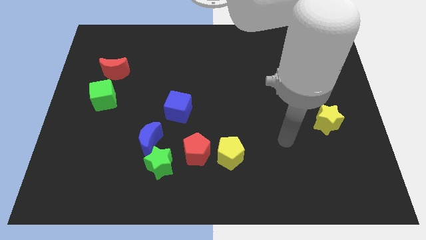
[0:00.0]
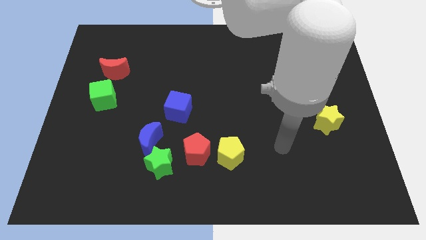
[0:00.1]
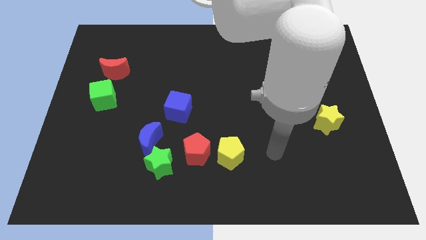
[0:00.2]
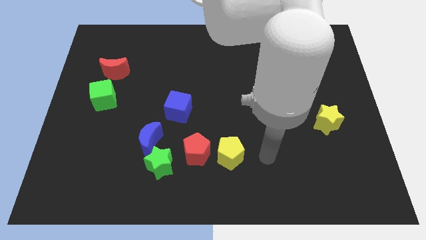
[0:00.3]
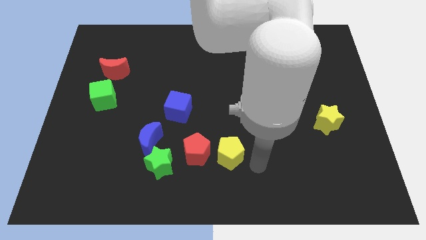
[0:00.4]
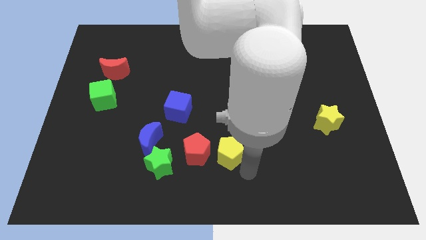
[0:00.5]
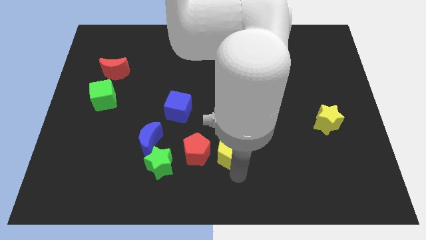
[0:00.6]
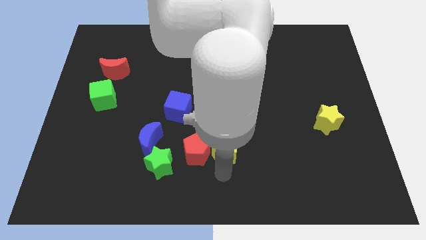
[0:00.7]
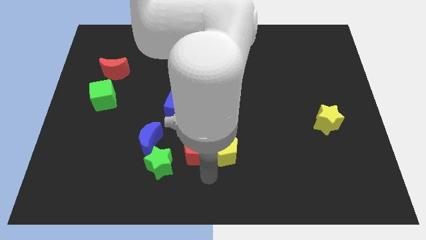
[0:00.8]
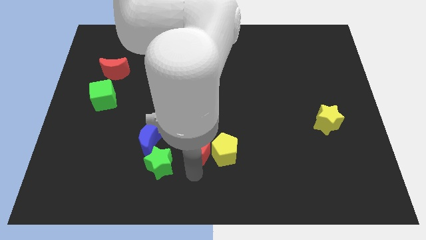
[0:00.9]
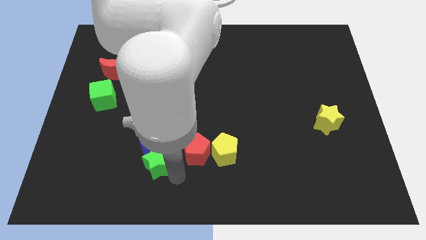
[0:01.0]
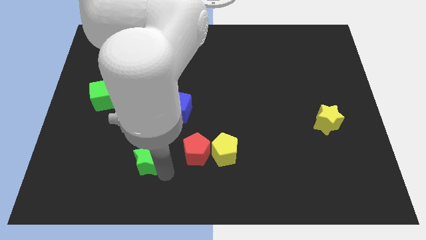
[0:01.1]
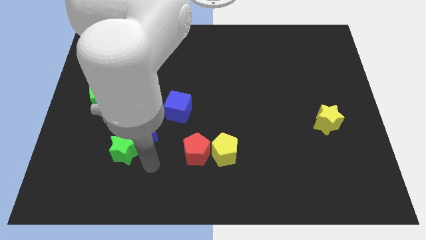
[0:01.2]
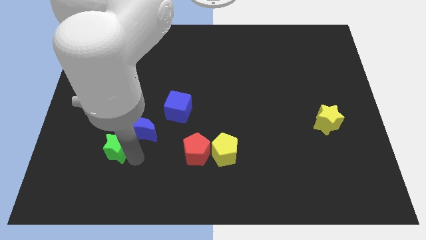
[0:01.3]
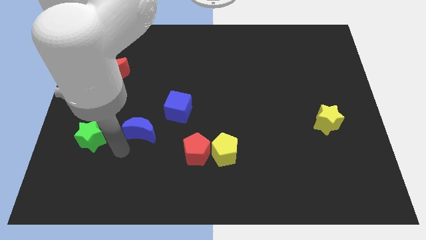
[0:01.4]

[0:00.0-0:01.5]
separate the blue moon from the green star

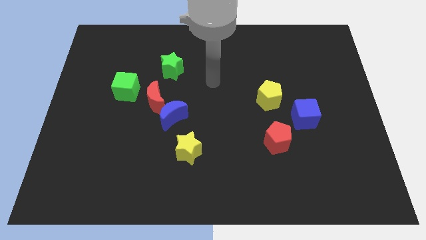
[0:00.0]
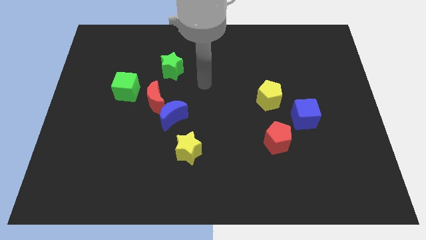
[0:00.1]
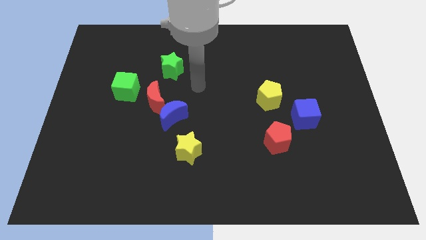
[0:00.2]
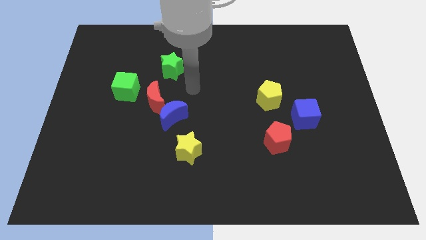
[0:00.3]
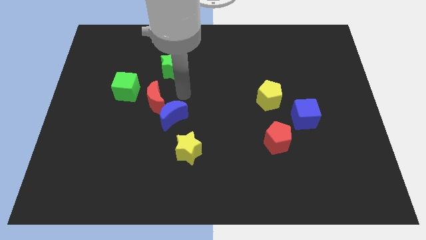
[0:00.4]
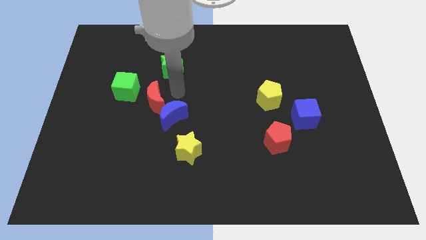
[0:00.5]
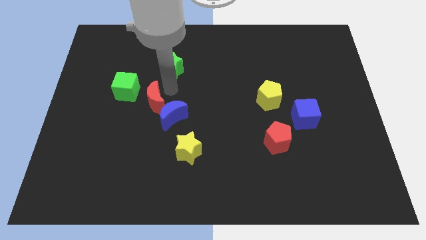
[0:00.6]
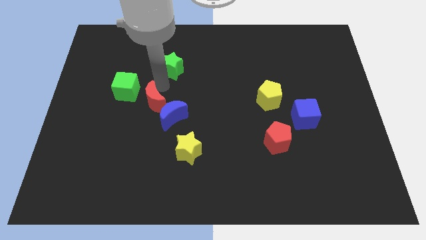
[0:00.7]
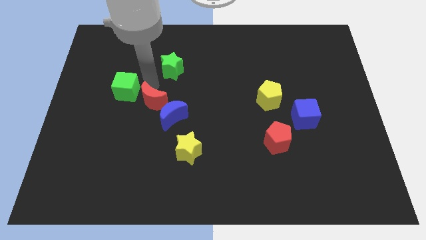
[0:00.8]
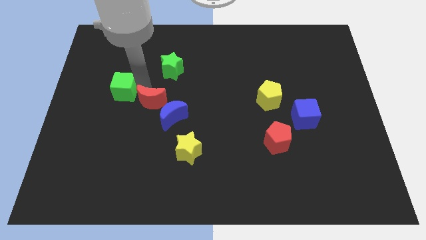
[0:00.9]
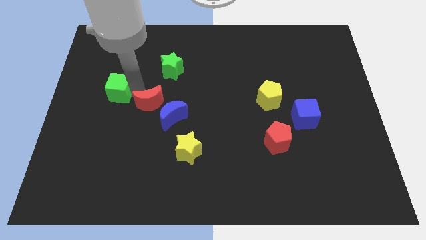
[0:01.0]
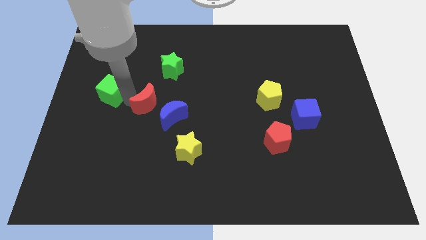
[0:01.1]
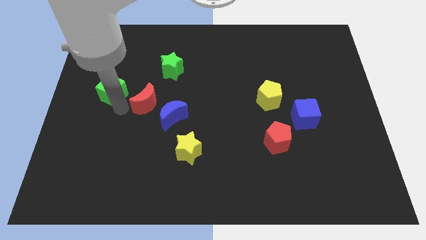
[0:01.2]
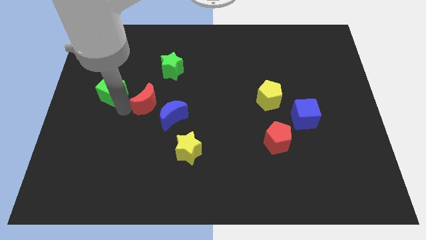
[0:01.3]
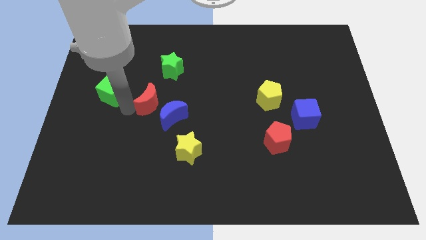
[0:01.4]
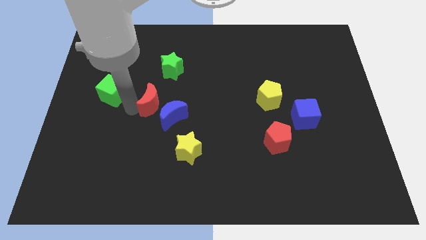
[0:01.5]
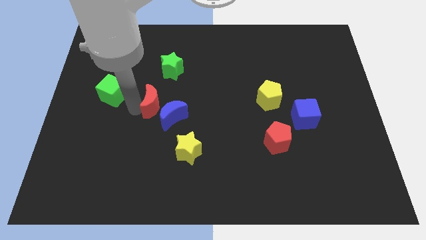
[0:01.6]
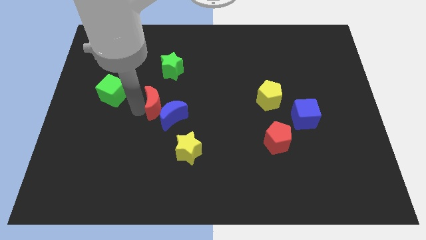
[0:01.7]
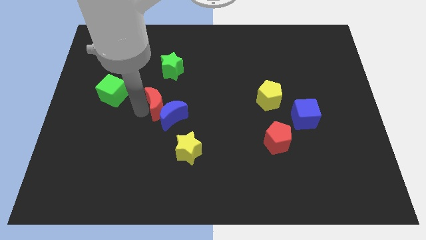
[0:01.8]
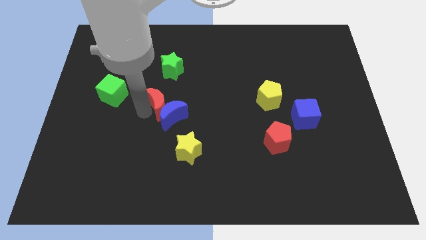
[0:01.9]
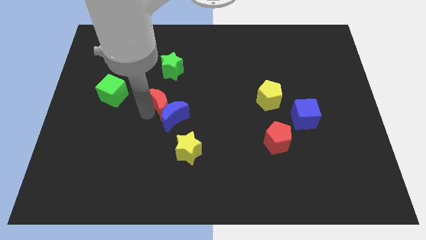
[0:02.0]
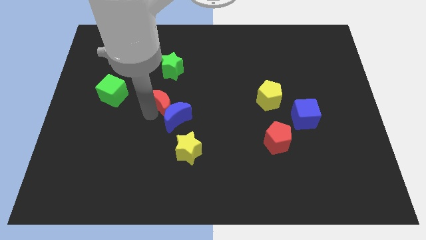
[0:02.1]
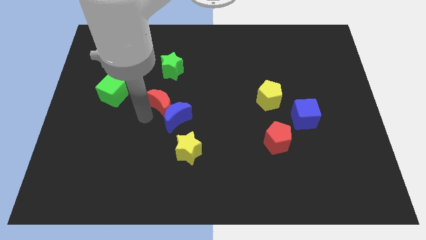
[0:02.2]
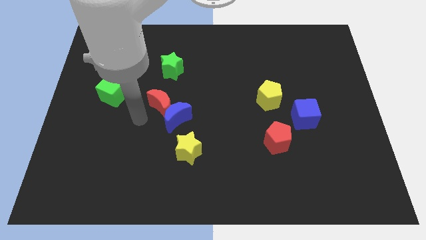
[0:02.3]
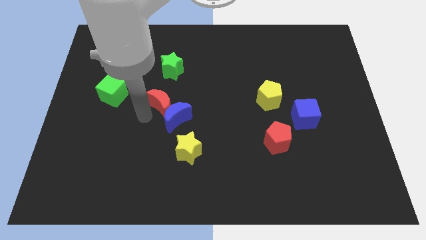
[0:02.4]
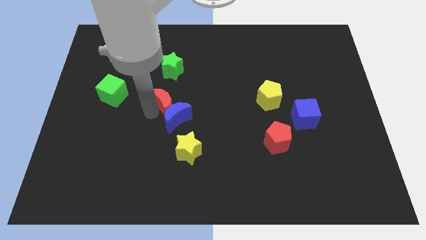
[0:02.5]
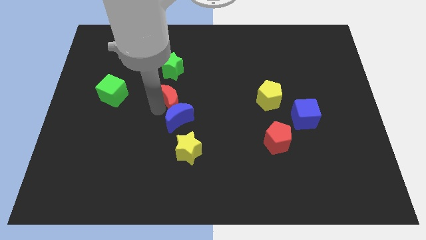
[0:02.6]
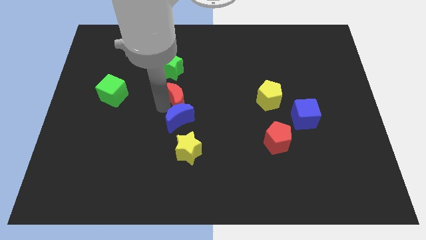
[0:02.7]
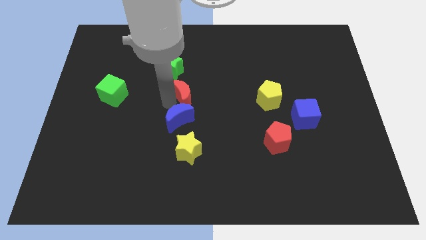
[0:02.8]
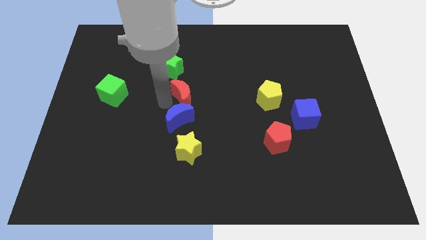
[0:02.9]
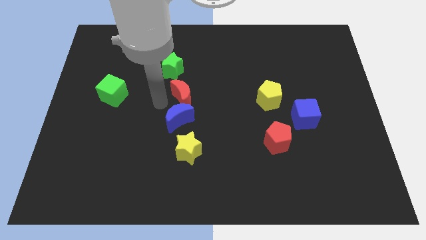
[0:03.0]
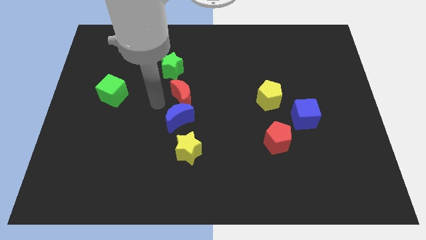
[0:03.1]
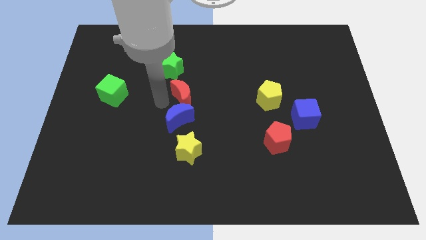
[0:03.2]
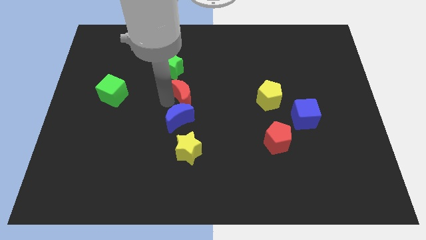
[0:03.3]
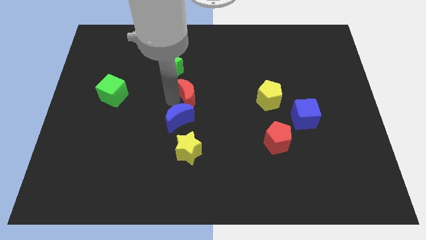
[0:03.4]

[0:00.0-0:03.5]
move the red moon away from the blue moon and green cube

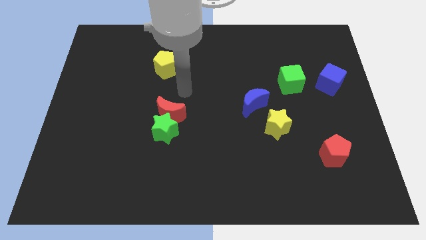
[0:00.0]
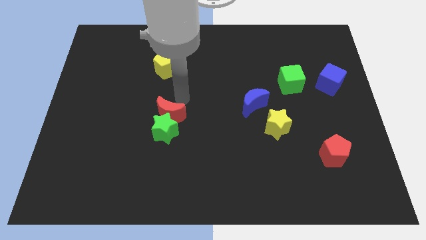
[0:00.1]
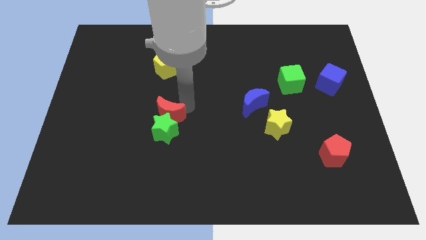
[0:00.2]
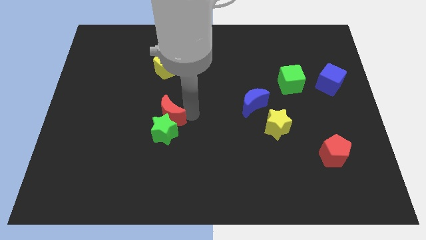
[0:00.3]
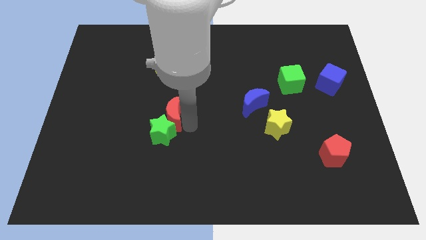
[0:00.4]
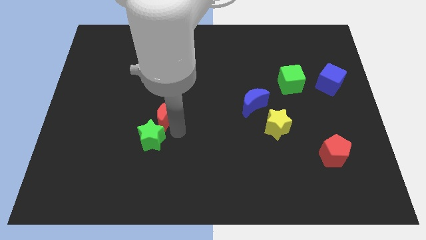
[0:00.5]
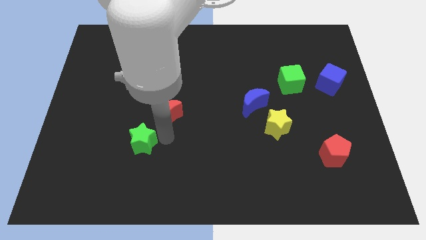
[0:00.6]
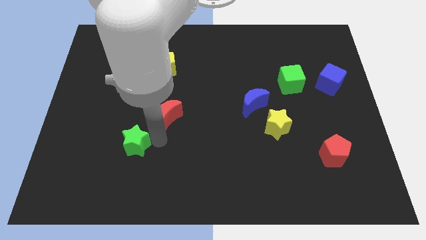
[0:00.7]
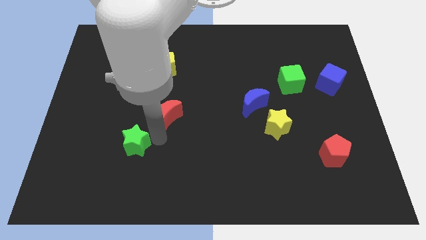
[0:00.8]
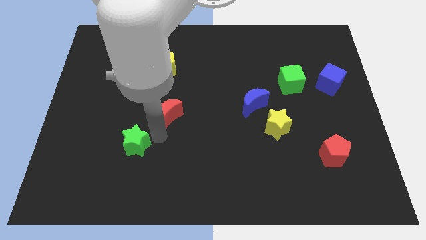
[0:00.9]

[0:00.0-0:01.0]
separate the red moon from the green star

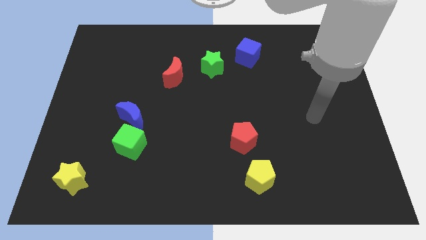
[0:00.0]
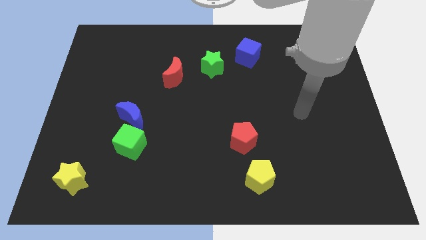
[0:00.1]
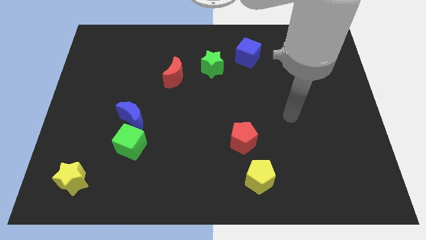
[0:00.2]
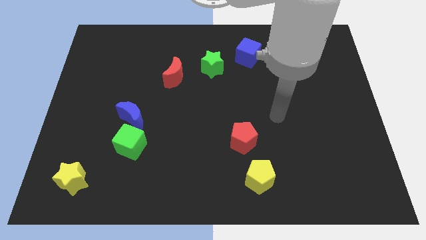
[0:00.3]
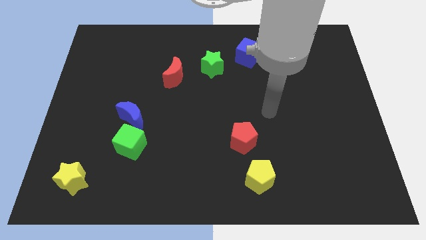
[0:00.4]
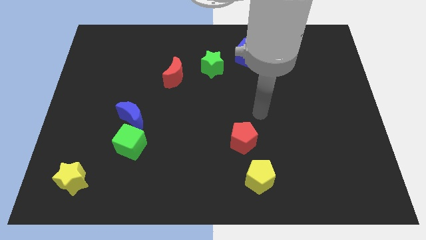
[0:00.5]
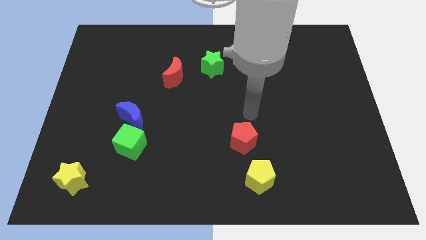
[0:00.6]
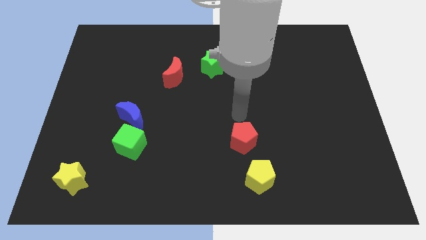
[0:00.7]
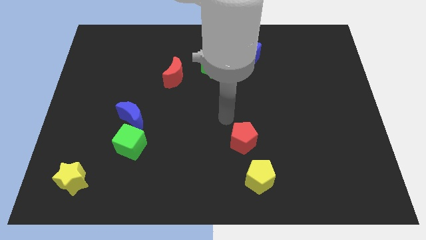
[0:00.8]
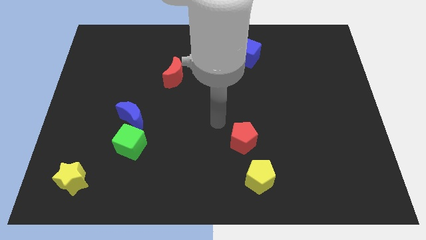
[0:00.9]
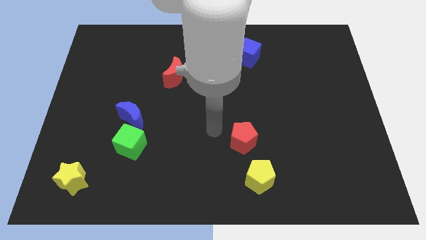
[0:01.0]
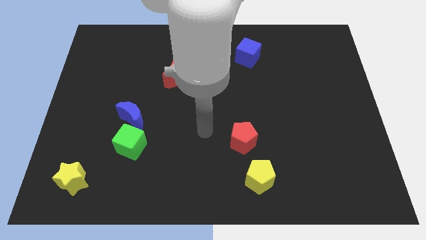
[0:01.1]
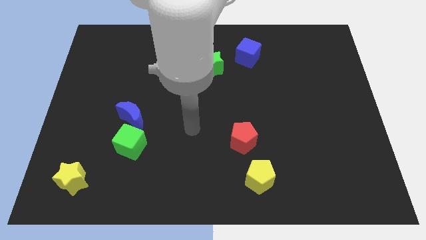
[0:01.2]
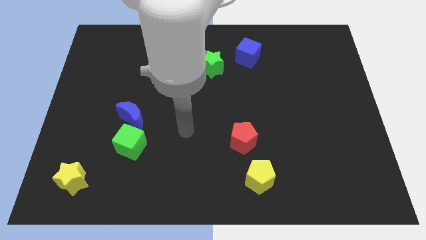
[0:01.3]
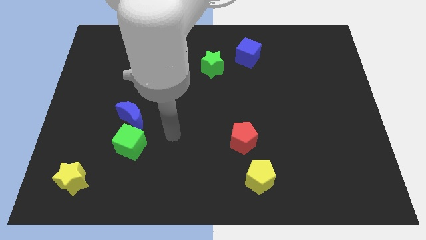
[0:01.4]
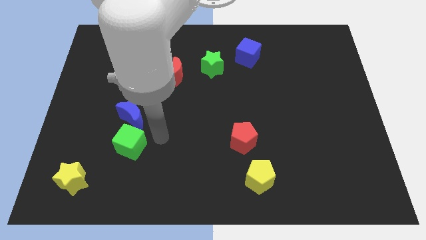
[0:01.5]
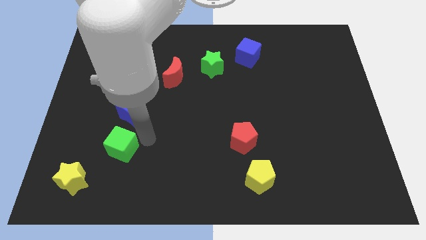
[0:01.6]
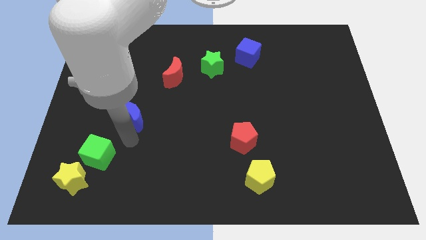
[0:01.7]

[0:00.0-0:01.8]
separate the blue moon from the green cube

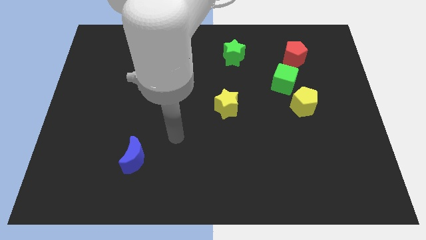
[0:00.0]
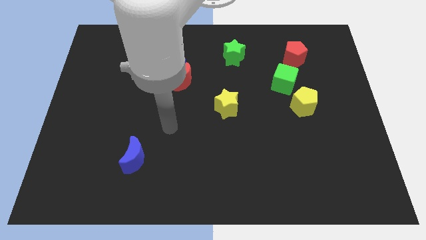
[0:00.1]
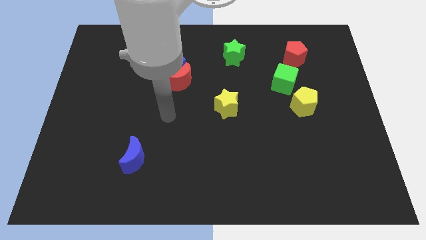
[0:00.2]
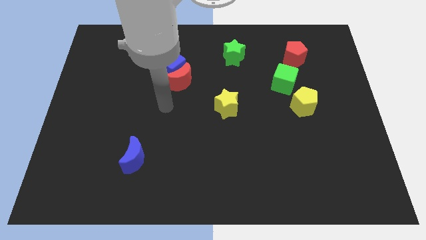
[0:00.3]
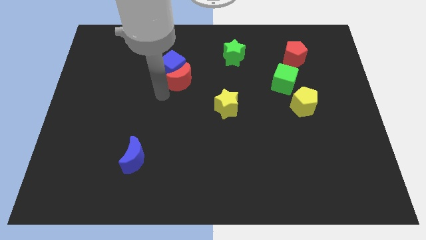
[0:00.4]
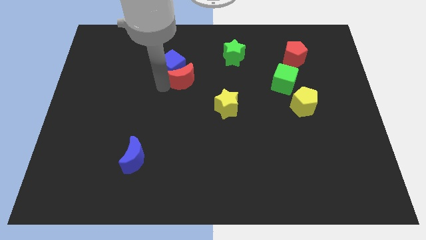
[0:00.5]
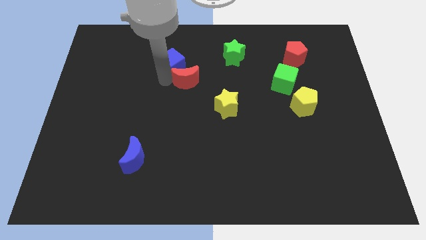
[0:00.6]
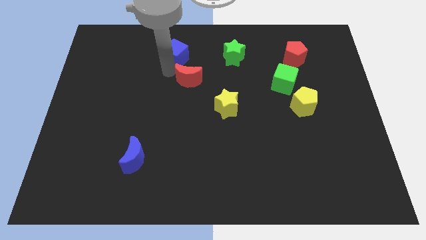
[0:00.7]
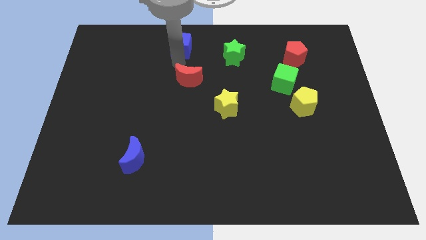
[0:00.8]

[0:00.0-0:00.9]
pull the red moon apart from the blue cube

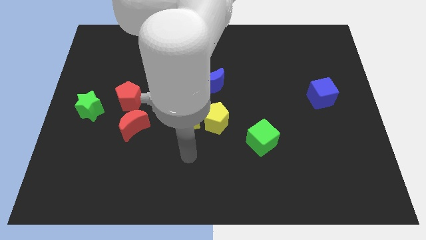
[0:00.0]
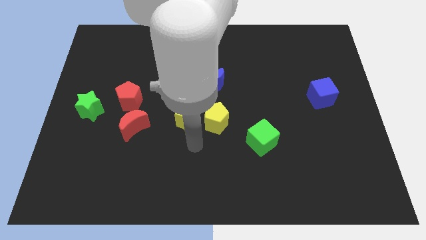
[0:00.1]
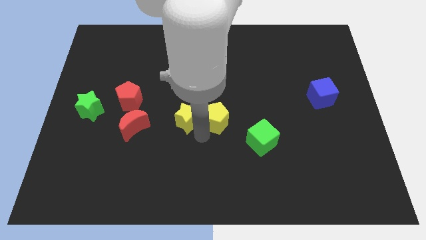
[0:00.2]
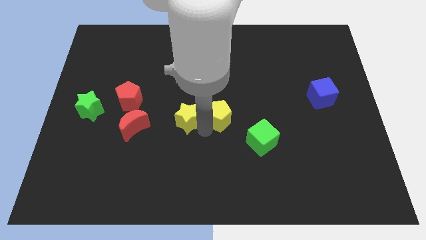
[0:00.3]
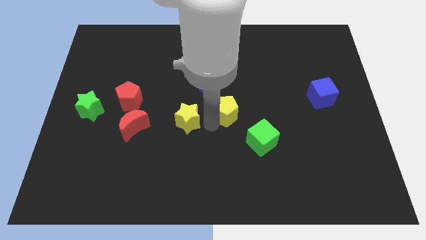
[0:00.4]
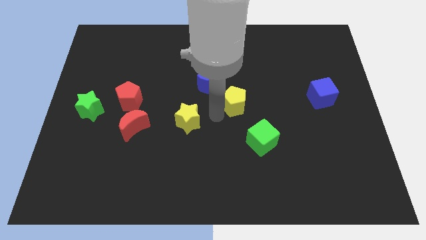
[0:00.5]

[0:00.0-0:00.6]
separate the yellow star from the yellow pentagon

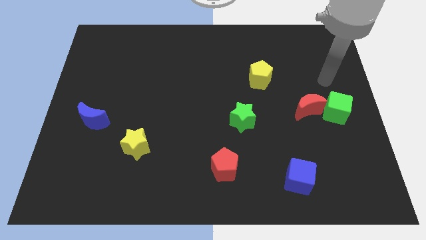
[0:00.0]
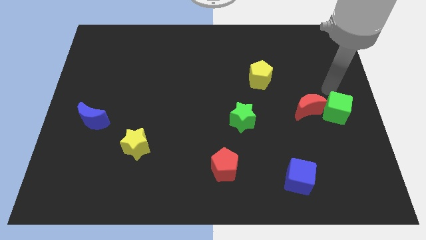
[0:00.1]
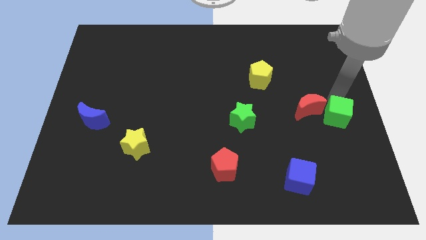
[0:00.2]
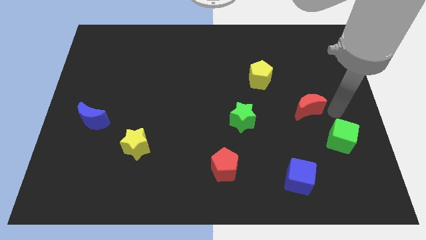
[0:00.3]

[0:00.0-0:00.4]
pull the red moon apart from the green cube
